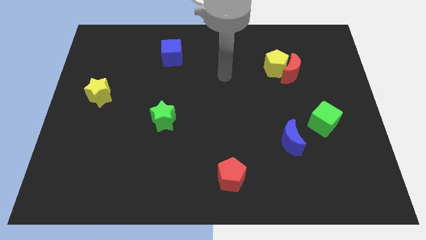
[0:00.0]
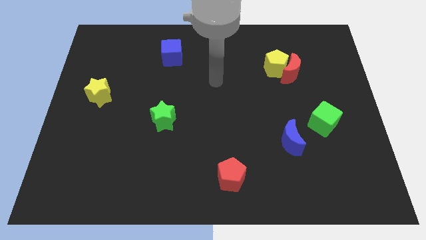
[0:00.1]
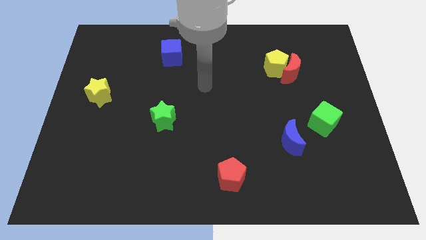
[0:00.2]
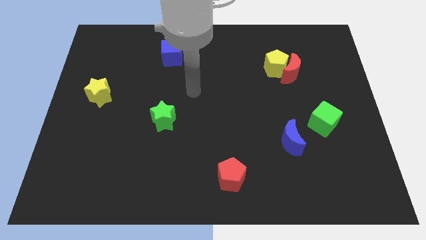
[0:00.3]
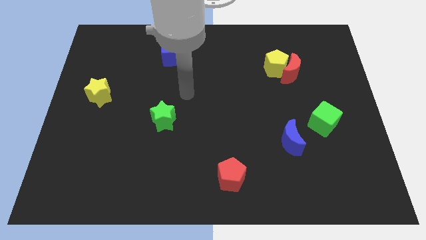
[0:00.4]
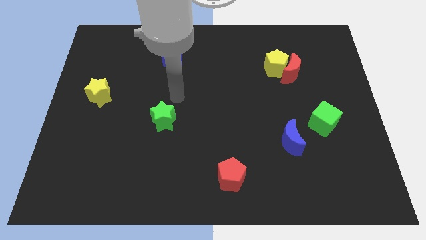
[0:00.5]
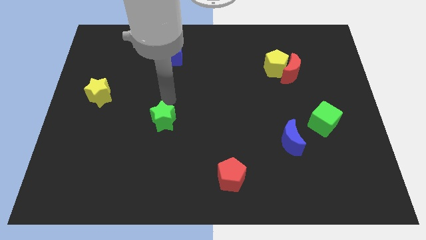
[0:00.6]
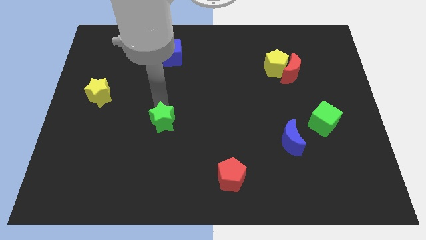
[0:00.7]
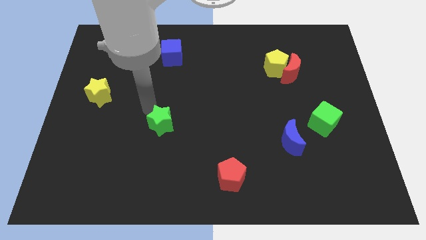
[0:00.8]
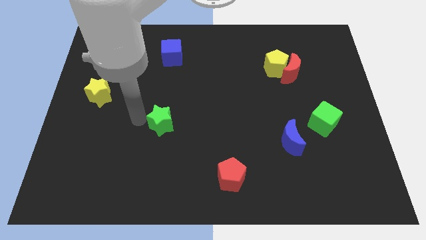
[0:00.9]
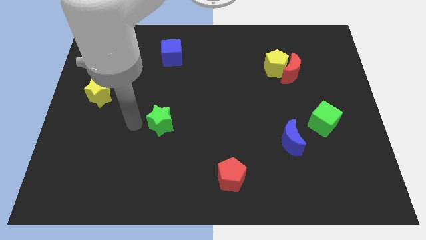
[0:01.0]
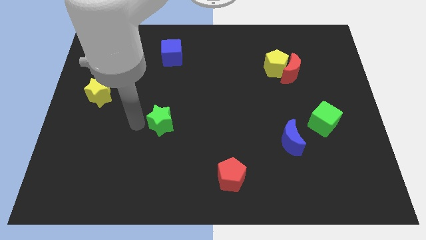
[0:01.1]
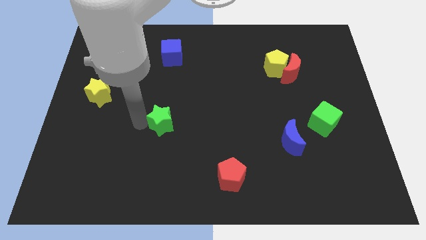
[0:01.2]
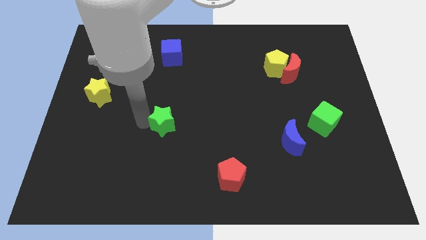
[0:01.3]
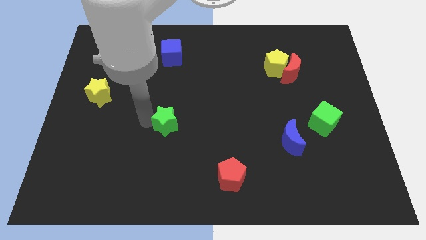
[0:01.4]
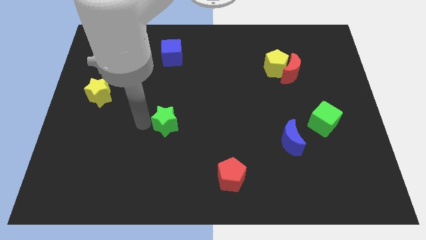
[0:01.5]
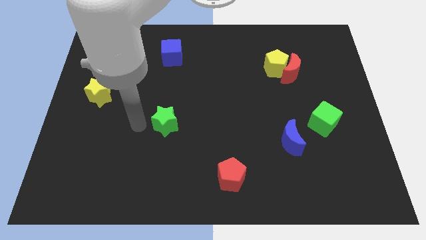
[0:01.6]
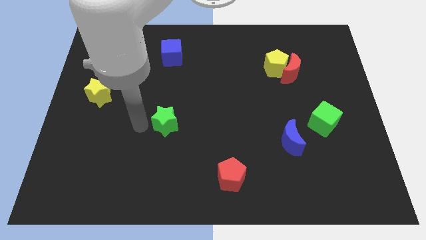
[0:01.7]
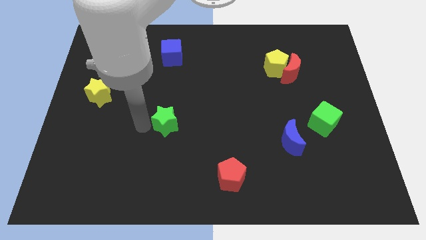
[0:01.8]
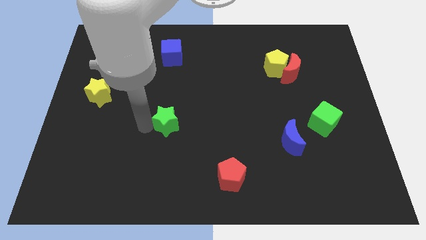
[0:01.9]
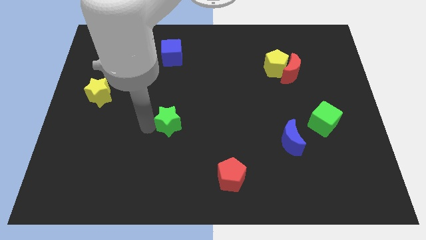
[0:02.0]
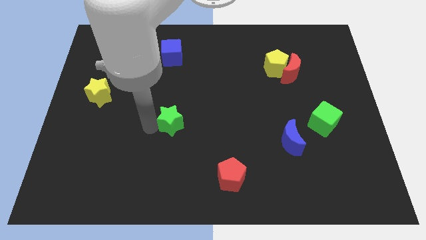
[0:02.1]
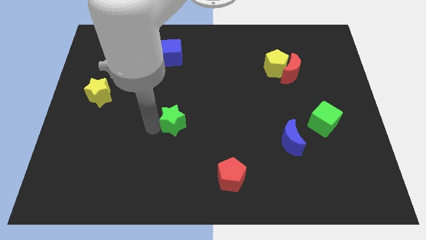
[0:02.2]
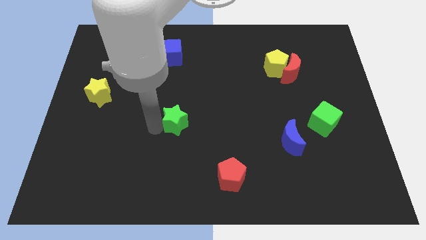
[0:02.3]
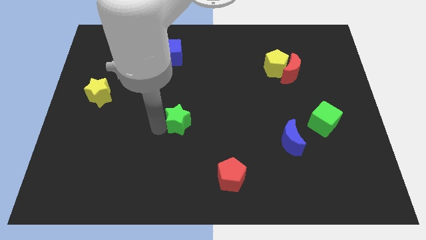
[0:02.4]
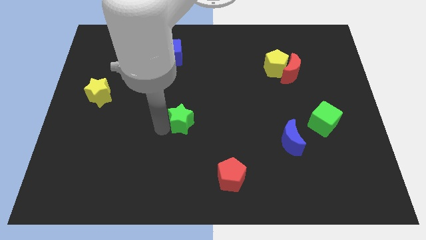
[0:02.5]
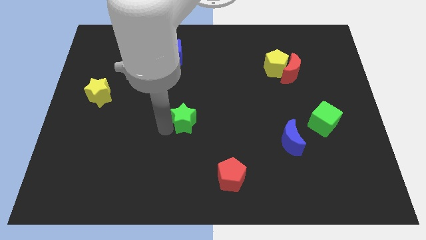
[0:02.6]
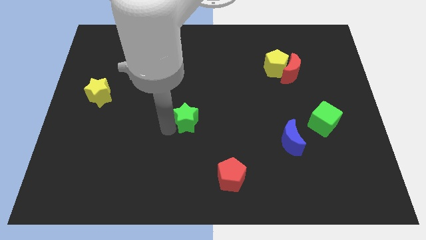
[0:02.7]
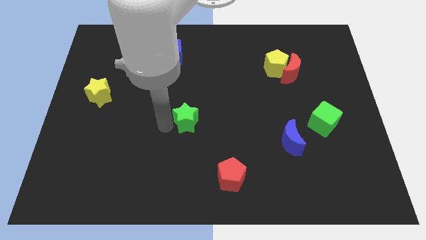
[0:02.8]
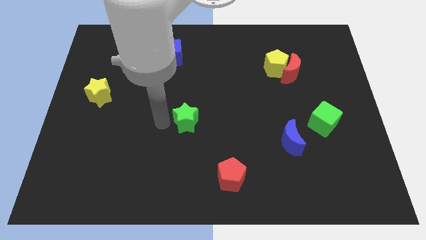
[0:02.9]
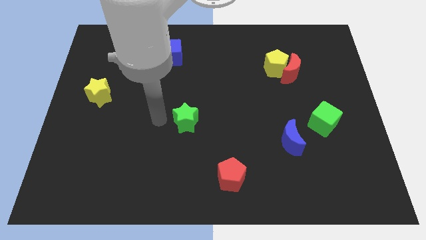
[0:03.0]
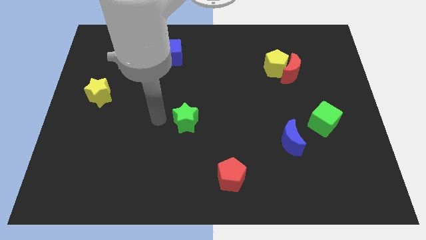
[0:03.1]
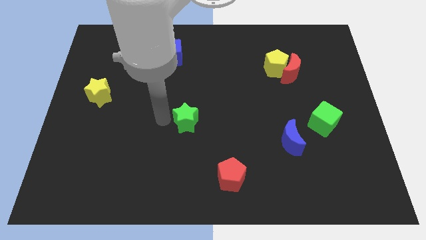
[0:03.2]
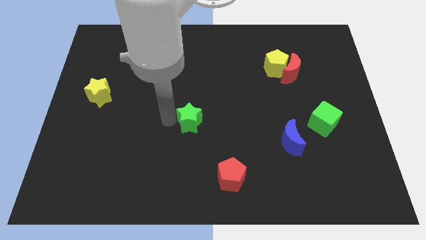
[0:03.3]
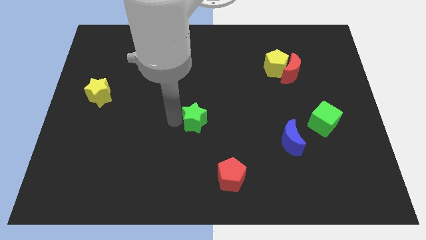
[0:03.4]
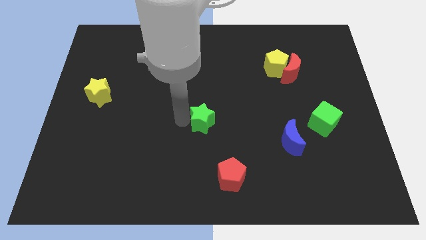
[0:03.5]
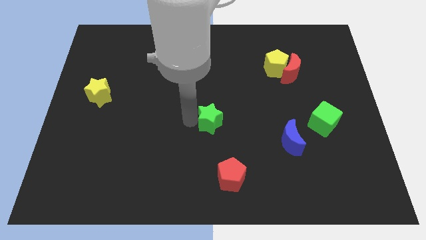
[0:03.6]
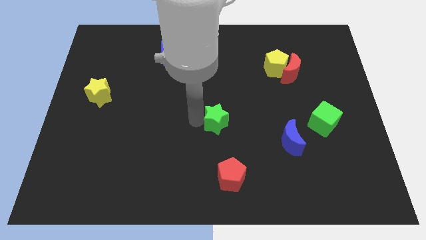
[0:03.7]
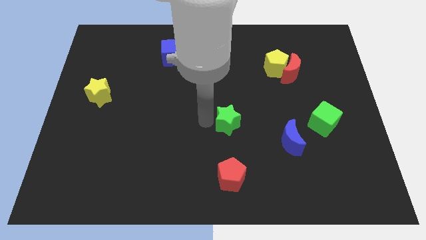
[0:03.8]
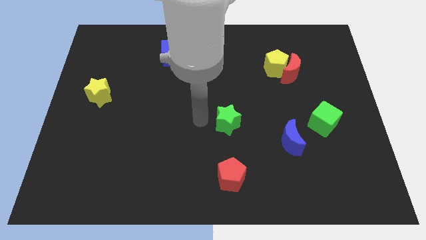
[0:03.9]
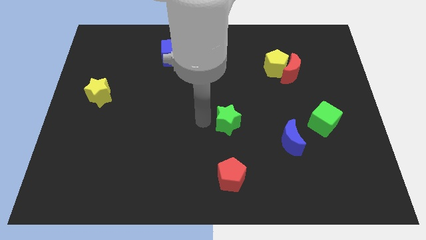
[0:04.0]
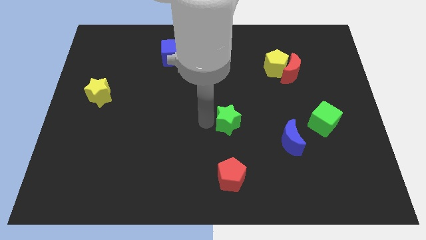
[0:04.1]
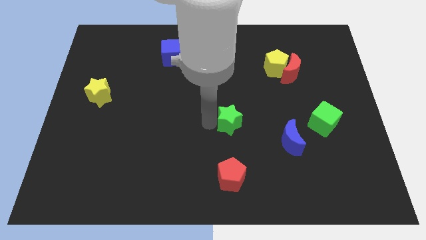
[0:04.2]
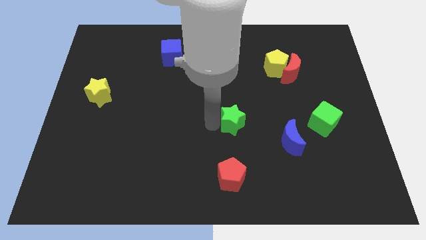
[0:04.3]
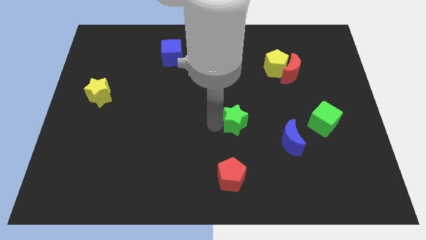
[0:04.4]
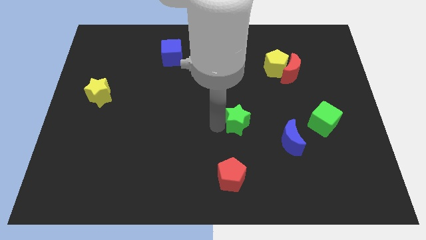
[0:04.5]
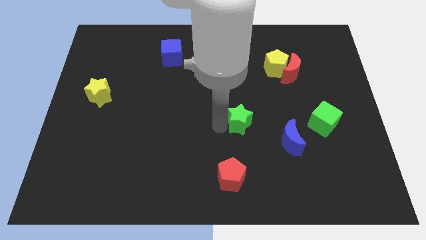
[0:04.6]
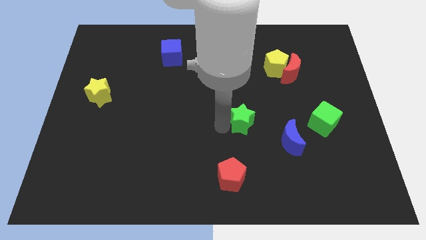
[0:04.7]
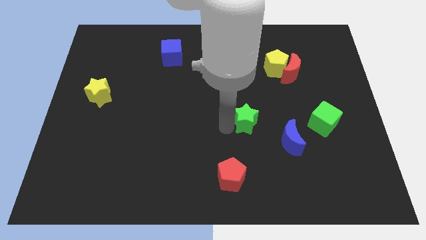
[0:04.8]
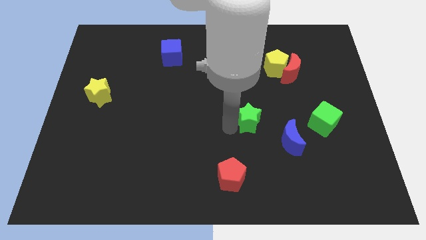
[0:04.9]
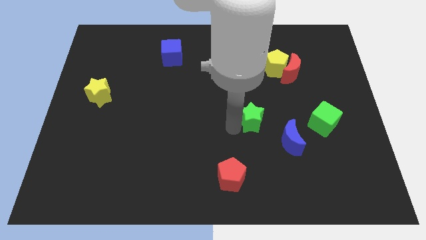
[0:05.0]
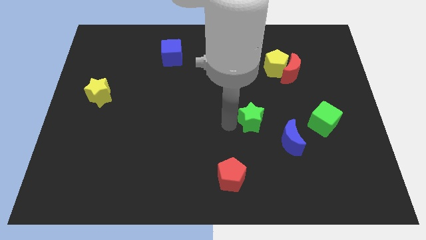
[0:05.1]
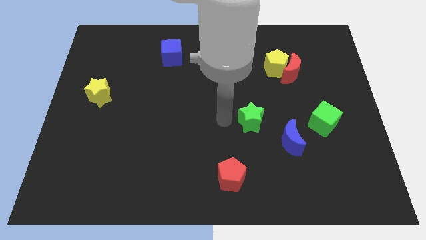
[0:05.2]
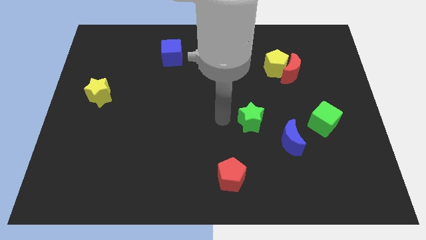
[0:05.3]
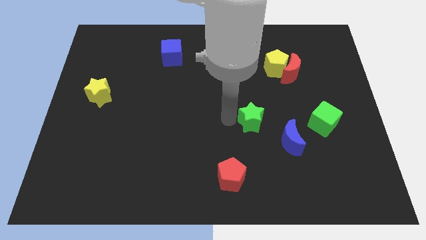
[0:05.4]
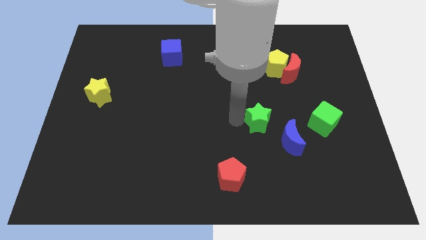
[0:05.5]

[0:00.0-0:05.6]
slide the green star to the left of the green cube

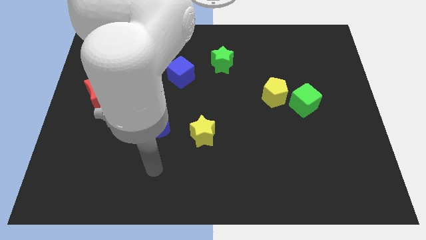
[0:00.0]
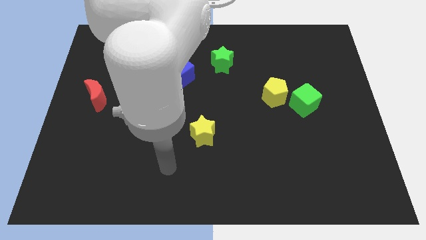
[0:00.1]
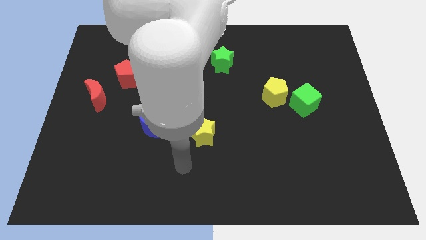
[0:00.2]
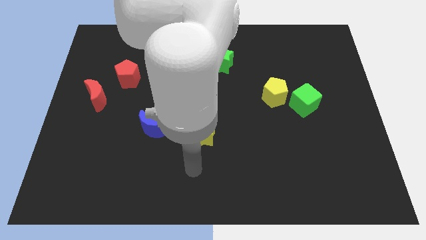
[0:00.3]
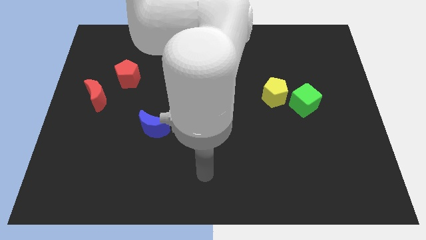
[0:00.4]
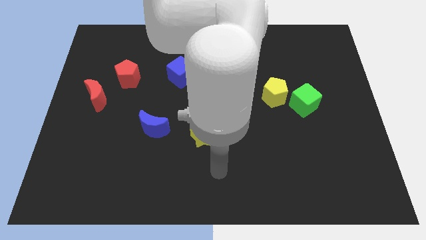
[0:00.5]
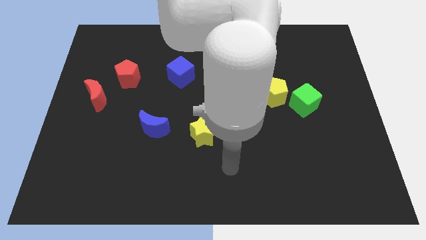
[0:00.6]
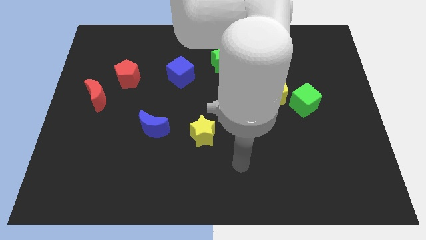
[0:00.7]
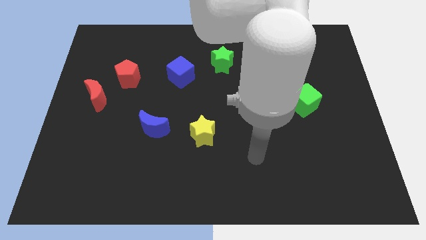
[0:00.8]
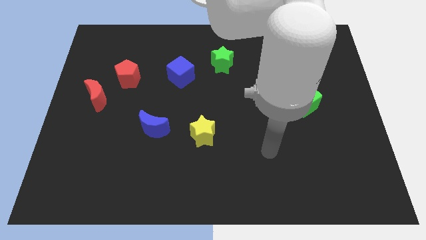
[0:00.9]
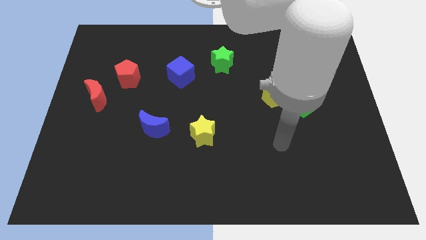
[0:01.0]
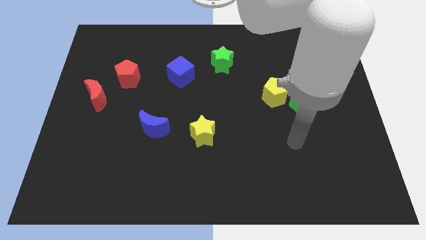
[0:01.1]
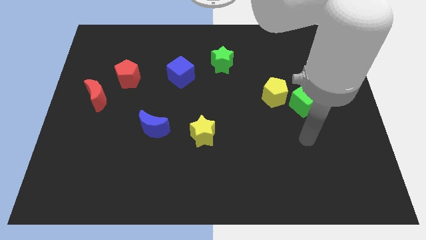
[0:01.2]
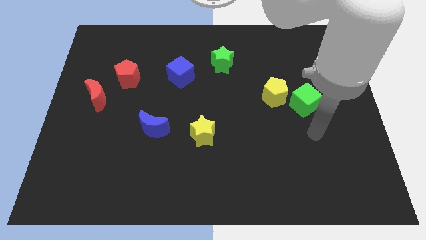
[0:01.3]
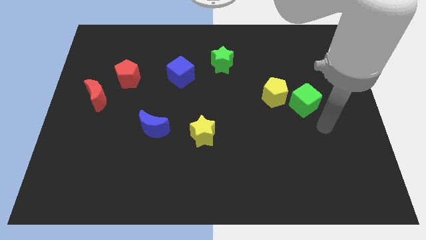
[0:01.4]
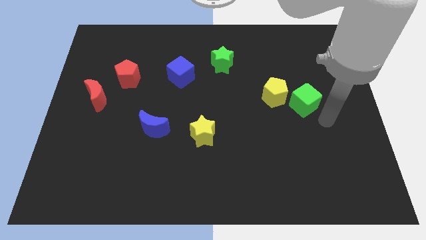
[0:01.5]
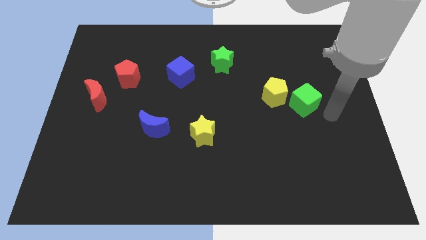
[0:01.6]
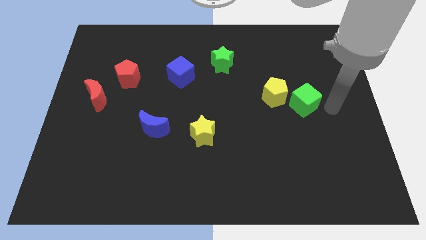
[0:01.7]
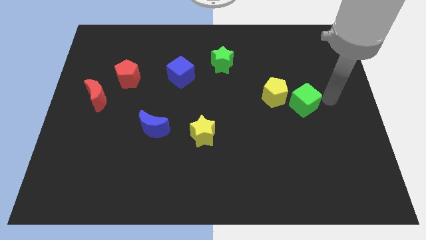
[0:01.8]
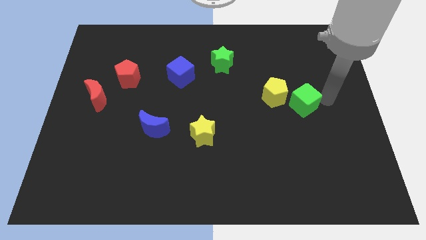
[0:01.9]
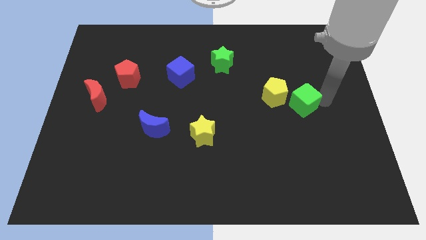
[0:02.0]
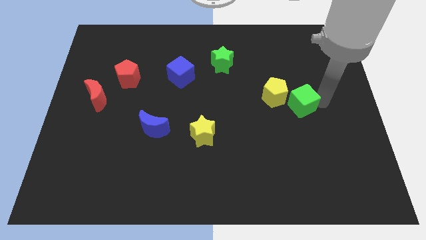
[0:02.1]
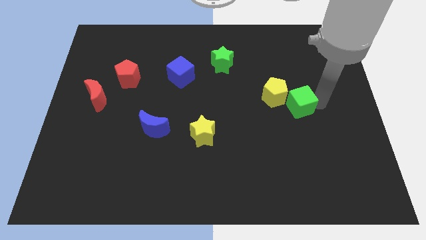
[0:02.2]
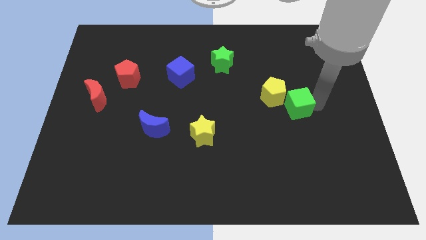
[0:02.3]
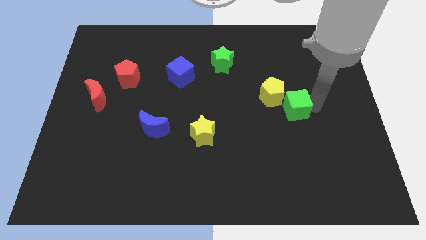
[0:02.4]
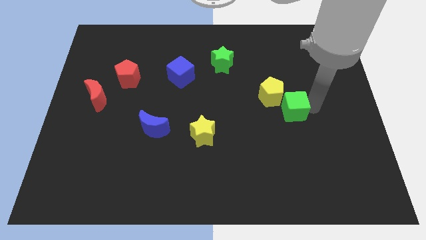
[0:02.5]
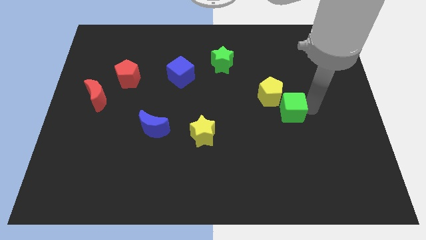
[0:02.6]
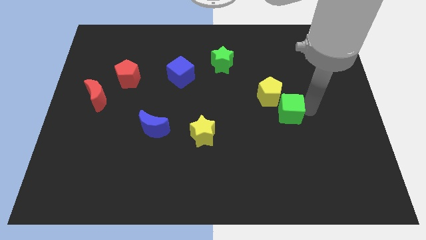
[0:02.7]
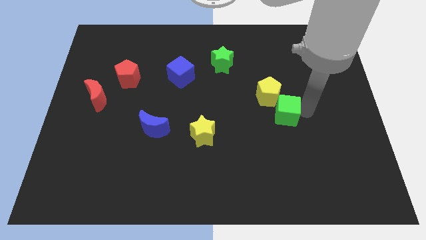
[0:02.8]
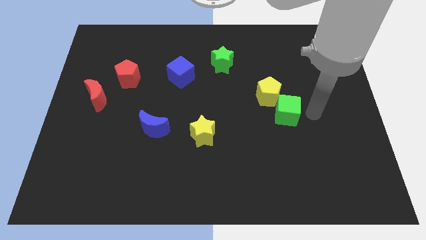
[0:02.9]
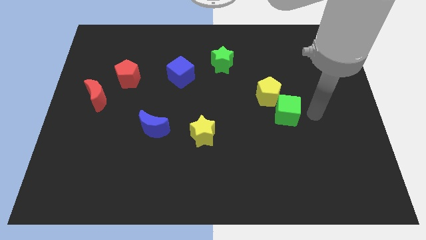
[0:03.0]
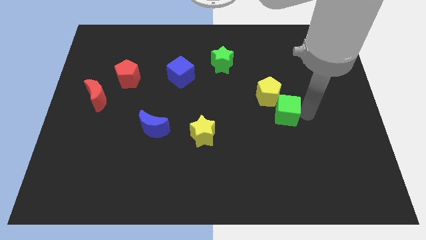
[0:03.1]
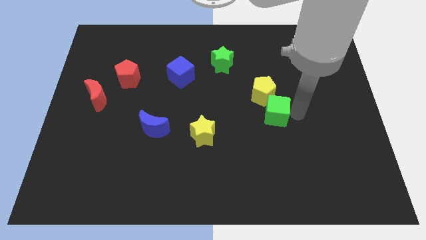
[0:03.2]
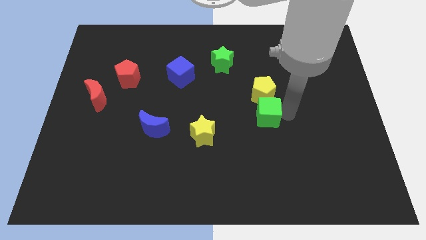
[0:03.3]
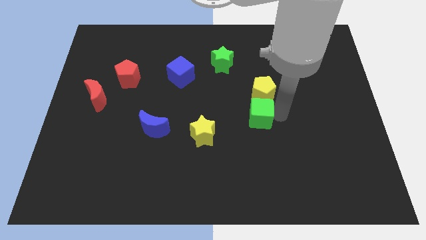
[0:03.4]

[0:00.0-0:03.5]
push the green cube to the bottom left of the yellow pentagon
